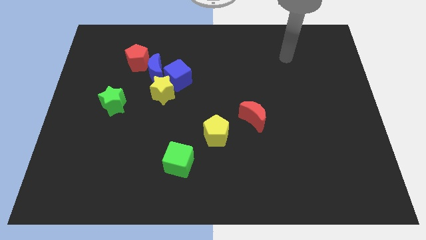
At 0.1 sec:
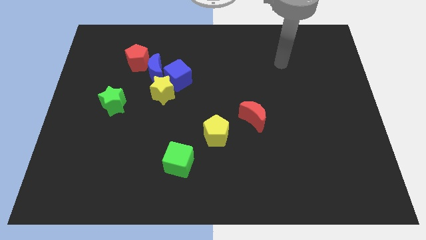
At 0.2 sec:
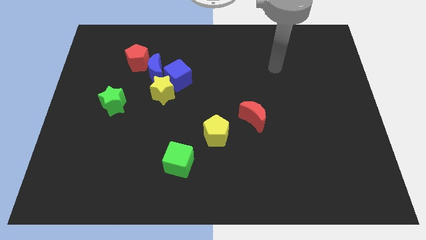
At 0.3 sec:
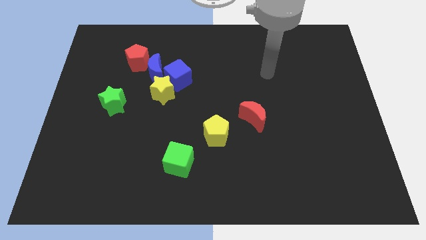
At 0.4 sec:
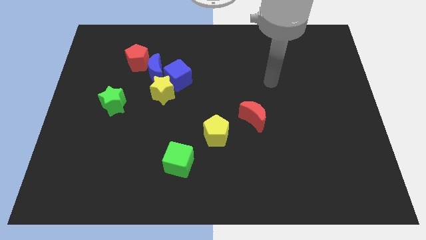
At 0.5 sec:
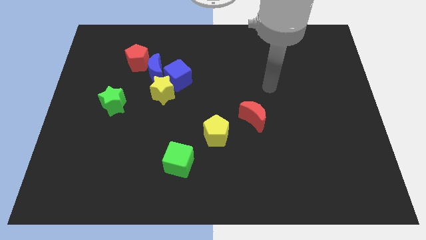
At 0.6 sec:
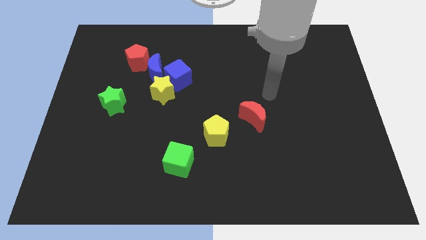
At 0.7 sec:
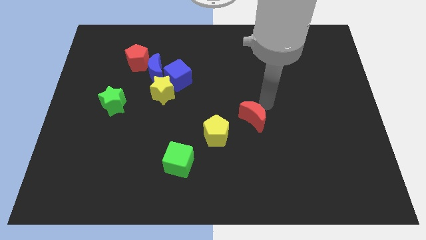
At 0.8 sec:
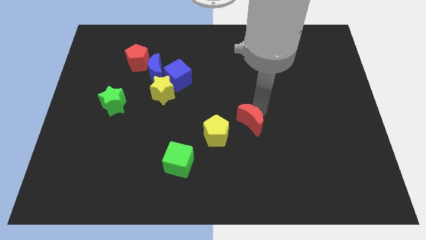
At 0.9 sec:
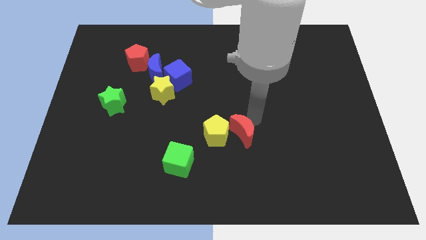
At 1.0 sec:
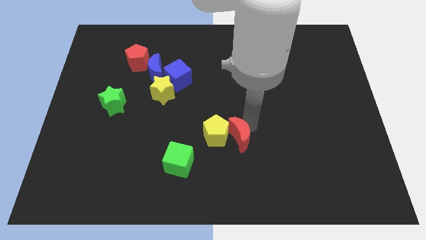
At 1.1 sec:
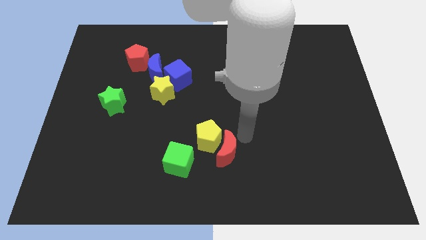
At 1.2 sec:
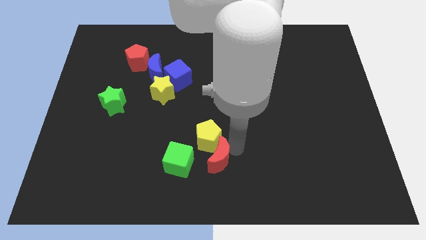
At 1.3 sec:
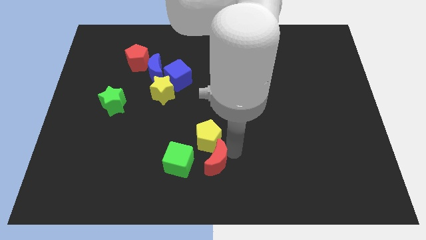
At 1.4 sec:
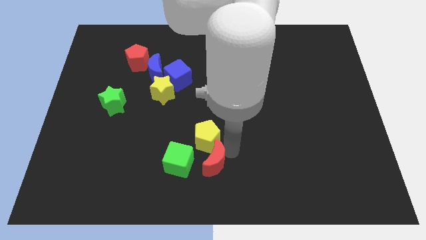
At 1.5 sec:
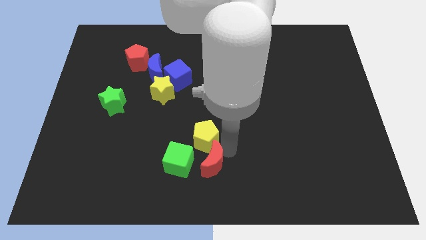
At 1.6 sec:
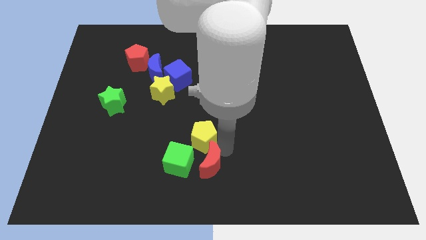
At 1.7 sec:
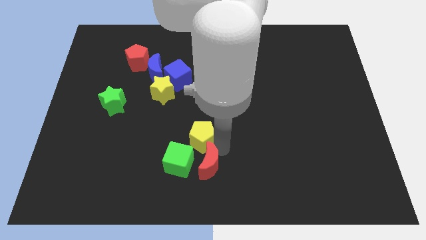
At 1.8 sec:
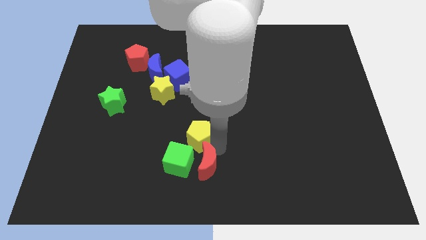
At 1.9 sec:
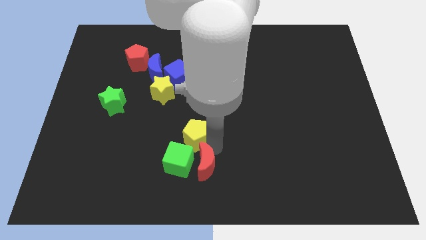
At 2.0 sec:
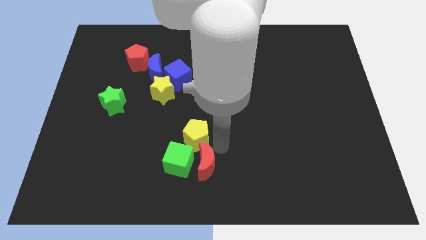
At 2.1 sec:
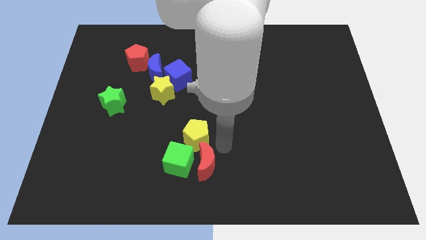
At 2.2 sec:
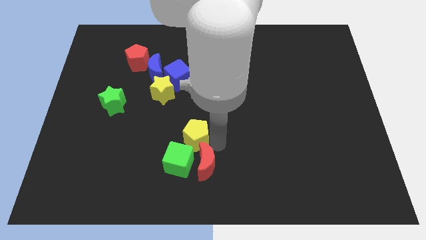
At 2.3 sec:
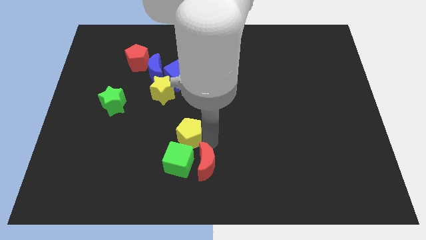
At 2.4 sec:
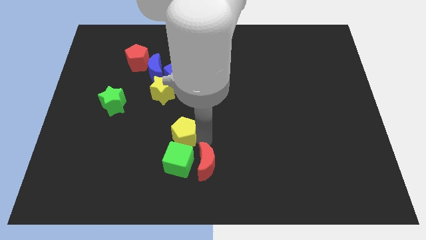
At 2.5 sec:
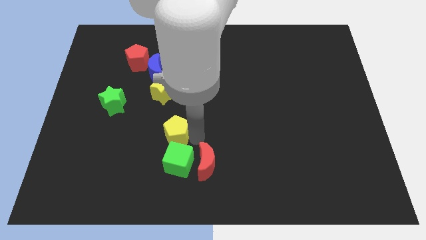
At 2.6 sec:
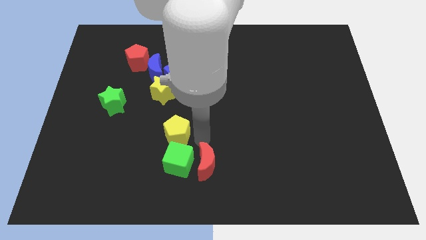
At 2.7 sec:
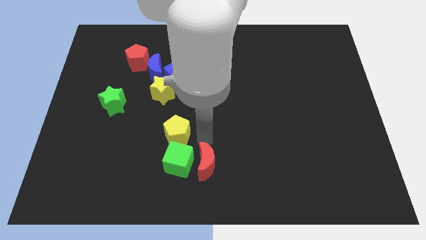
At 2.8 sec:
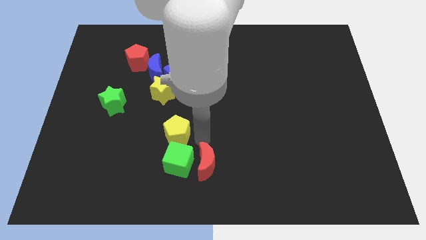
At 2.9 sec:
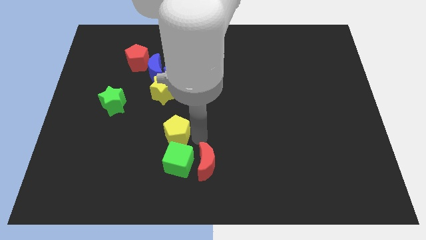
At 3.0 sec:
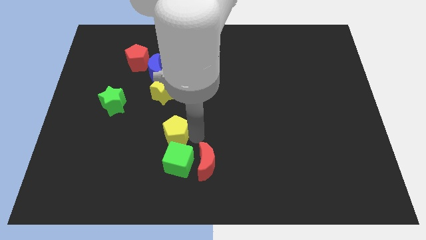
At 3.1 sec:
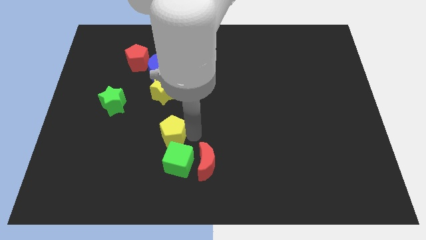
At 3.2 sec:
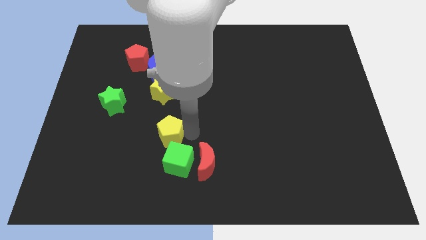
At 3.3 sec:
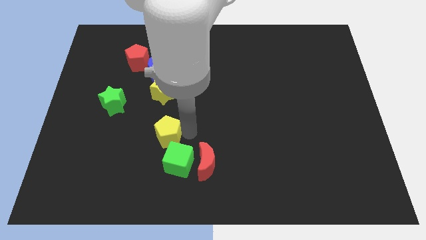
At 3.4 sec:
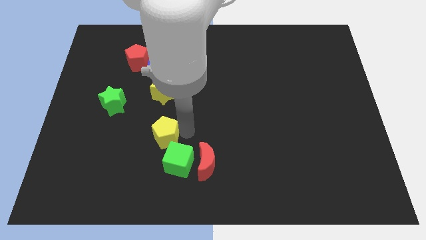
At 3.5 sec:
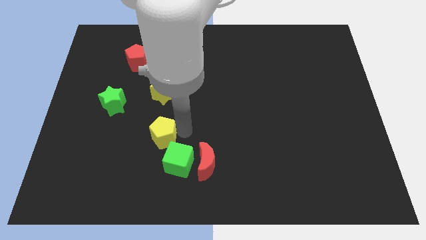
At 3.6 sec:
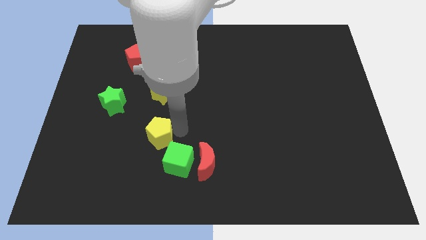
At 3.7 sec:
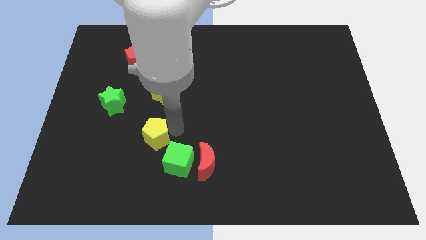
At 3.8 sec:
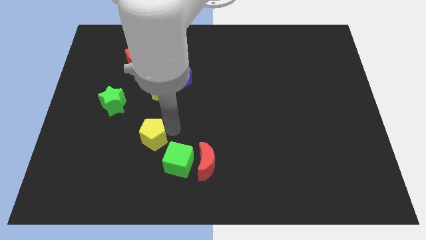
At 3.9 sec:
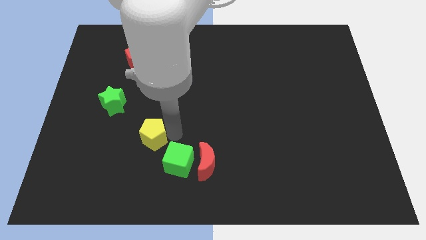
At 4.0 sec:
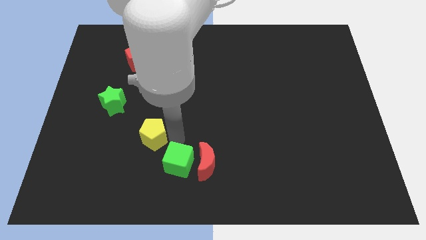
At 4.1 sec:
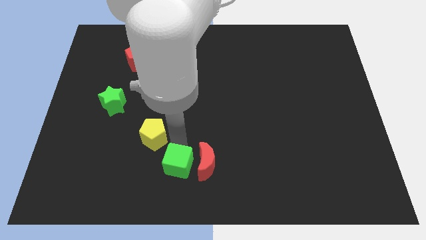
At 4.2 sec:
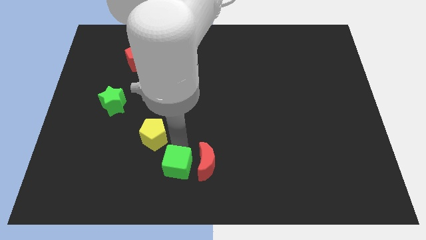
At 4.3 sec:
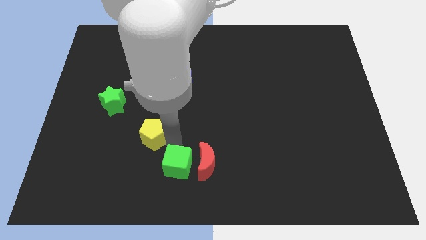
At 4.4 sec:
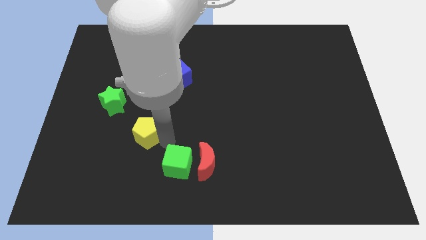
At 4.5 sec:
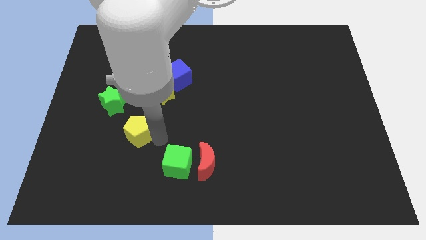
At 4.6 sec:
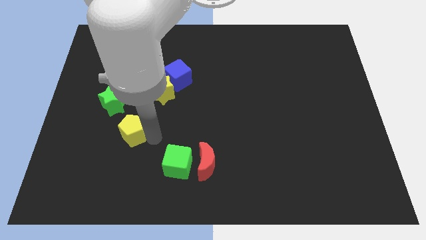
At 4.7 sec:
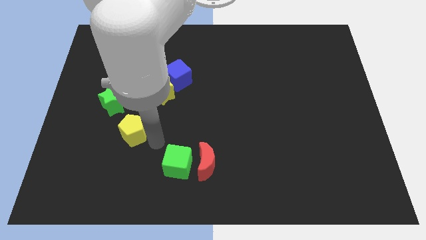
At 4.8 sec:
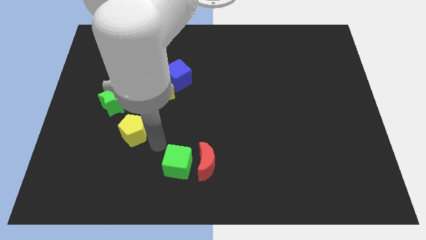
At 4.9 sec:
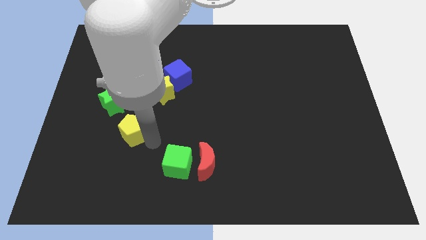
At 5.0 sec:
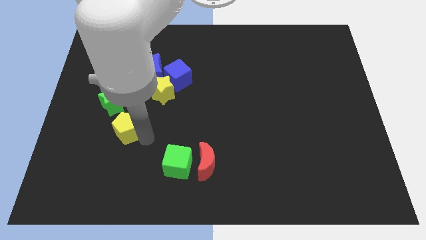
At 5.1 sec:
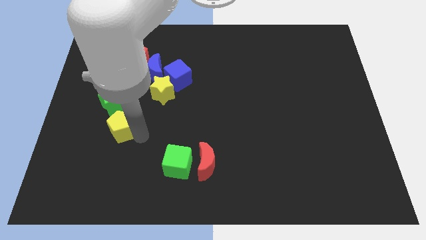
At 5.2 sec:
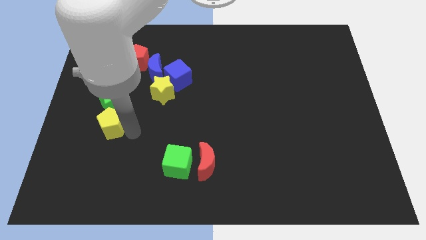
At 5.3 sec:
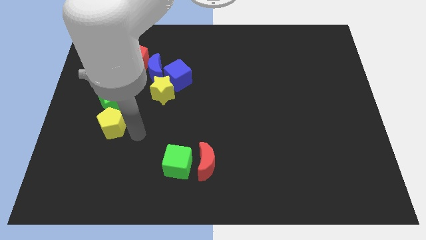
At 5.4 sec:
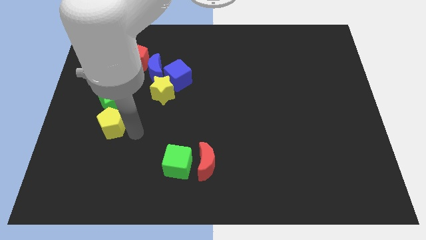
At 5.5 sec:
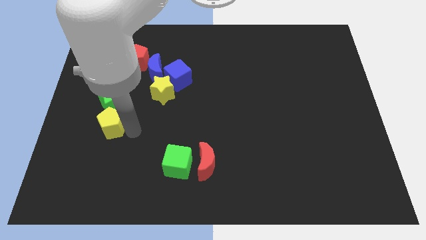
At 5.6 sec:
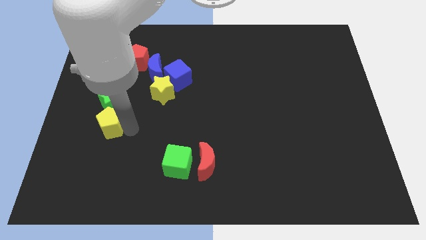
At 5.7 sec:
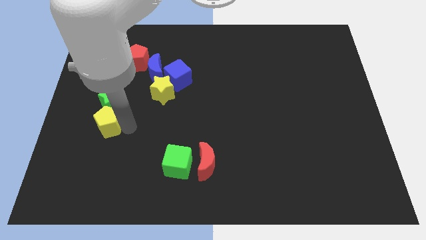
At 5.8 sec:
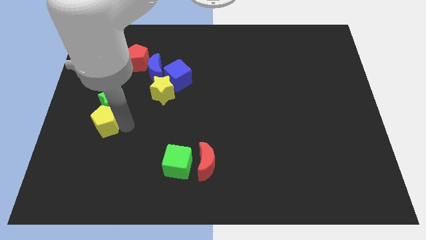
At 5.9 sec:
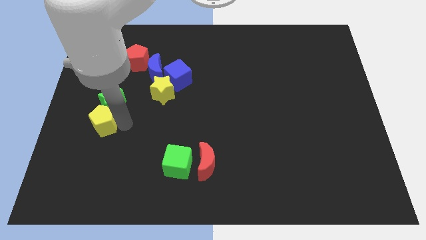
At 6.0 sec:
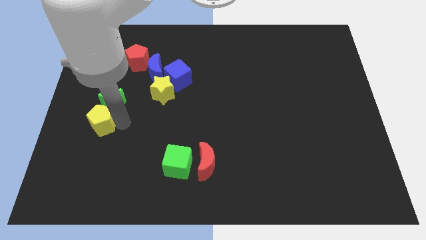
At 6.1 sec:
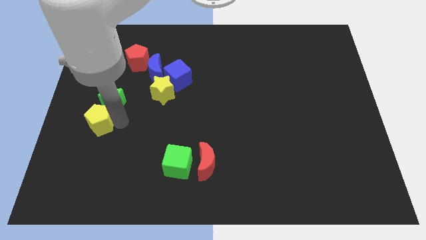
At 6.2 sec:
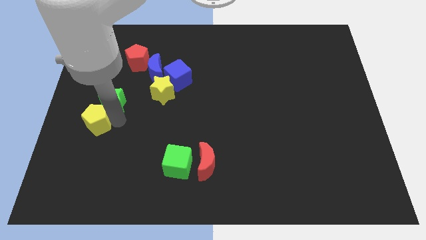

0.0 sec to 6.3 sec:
put the yellow pentagon to the center left
